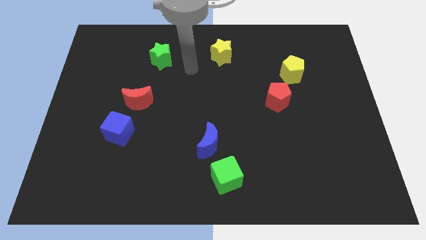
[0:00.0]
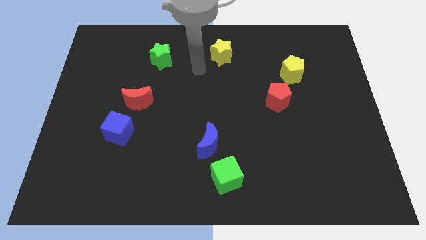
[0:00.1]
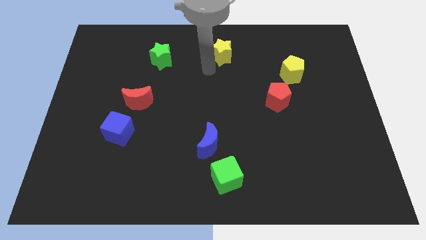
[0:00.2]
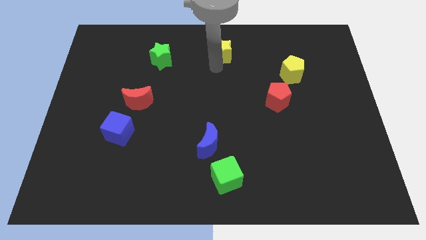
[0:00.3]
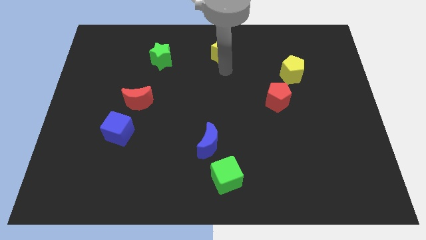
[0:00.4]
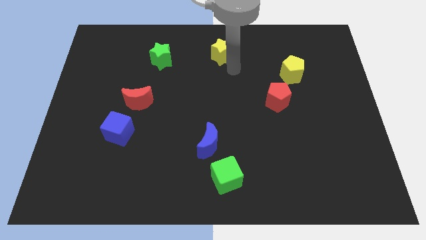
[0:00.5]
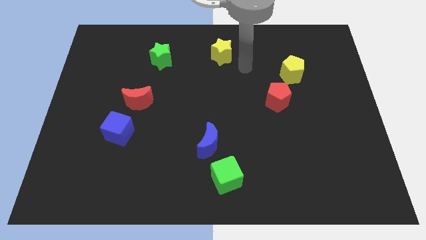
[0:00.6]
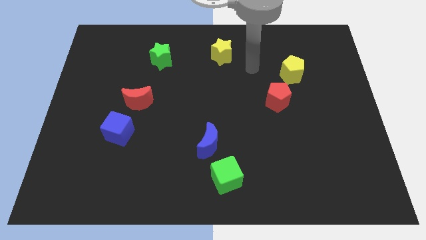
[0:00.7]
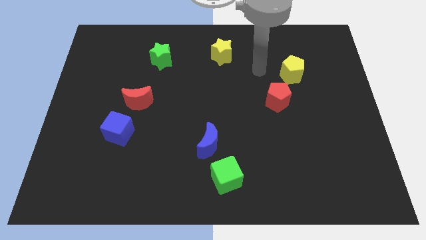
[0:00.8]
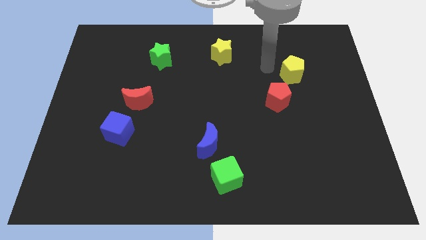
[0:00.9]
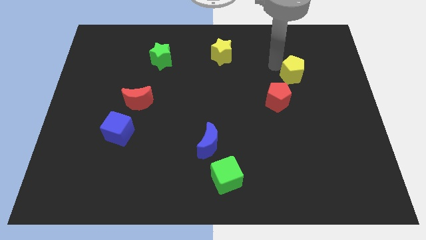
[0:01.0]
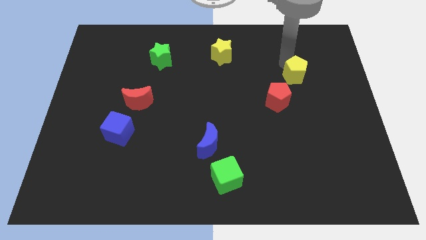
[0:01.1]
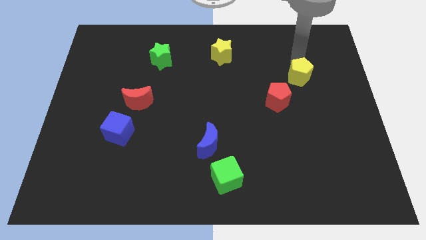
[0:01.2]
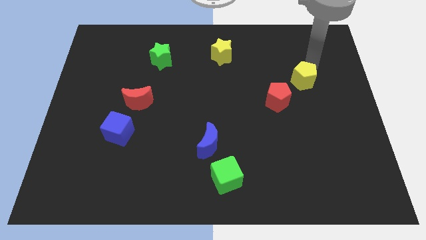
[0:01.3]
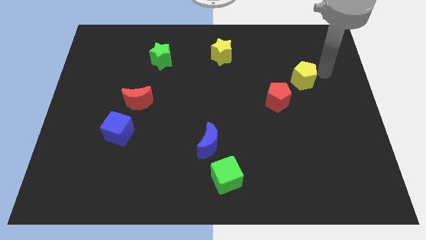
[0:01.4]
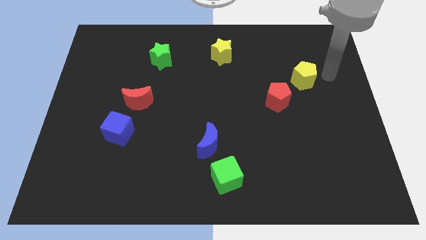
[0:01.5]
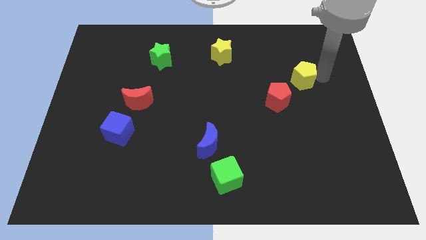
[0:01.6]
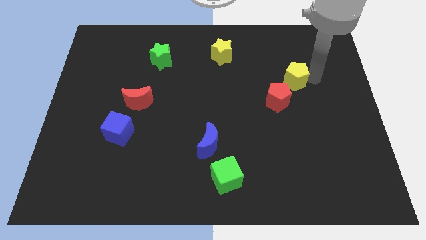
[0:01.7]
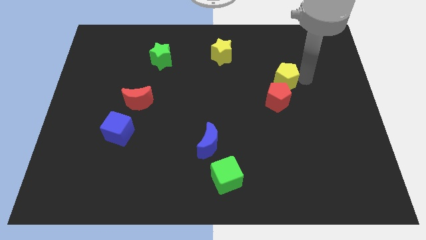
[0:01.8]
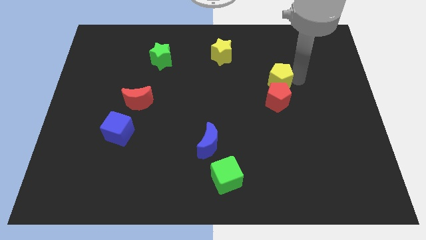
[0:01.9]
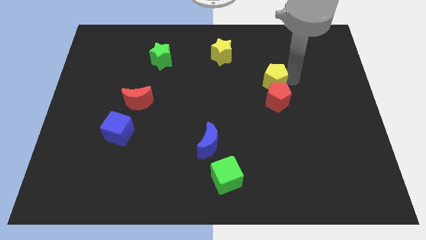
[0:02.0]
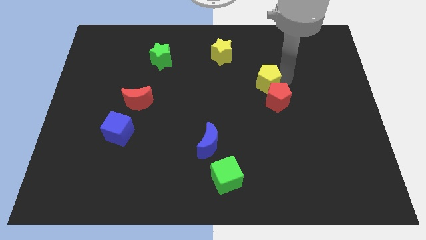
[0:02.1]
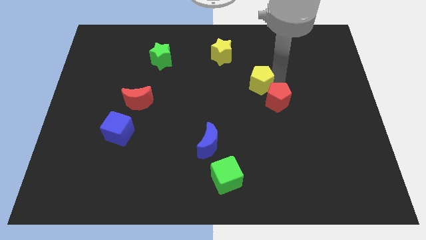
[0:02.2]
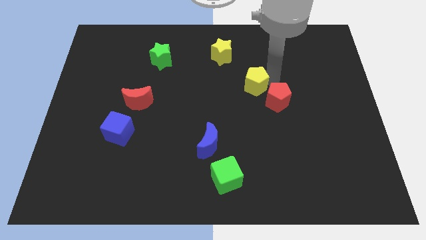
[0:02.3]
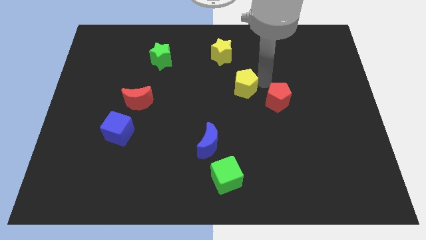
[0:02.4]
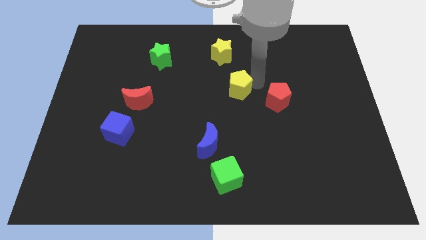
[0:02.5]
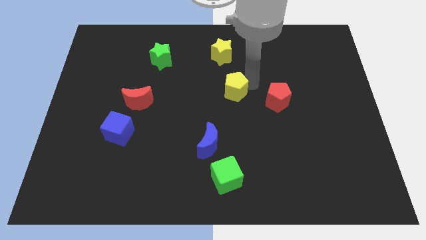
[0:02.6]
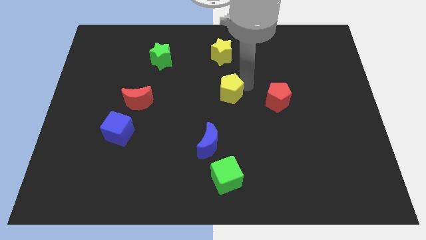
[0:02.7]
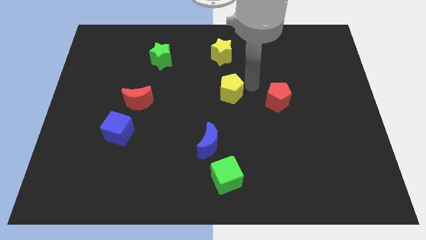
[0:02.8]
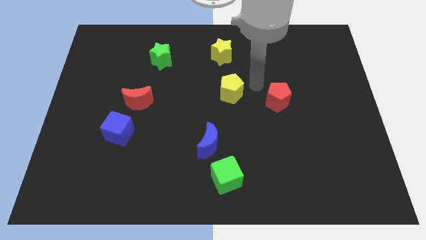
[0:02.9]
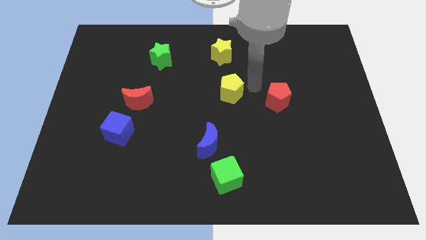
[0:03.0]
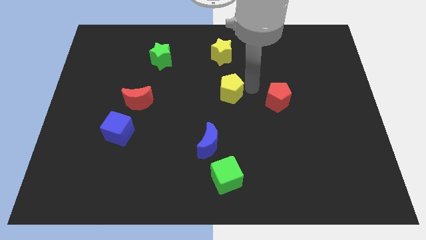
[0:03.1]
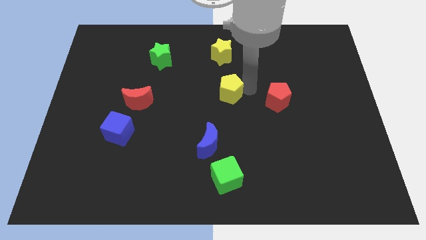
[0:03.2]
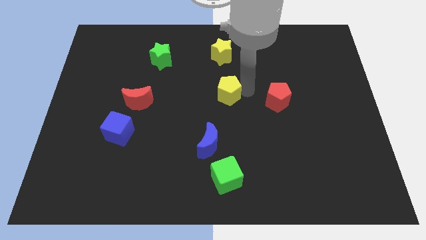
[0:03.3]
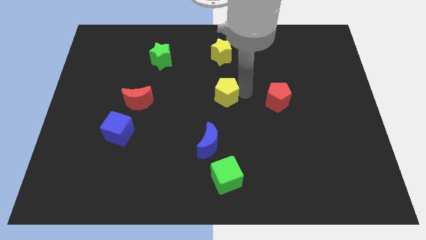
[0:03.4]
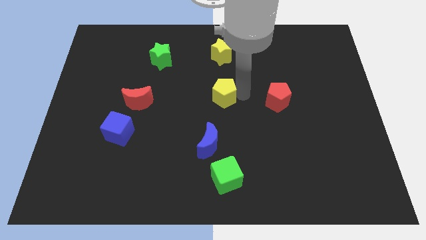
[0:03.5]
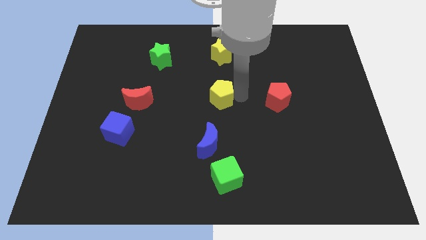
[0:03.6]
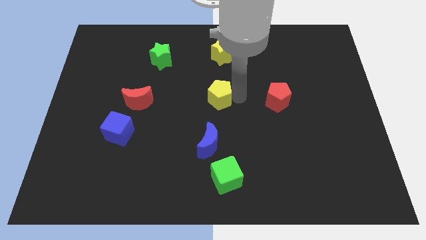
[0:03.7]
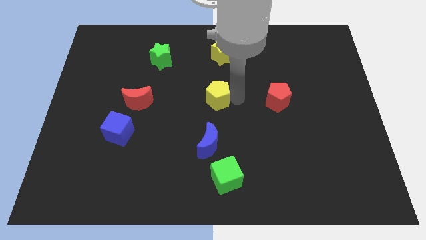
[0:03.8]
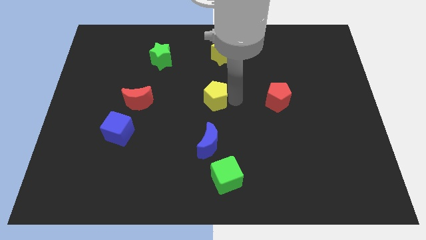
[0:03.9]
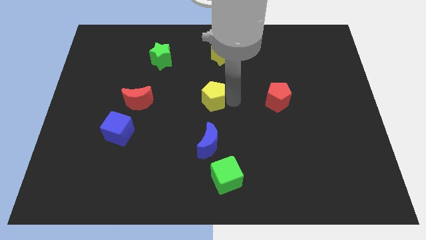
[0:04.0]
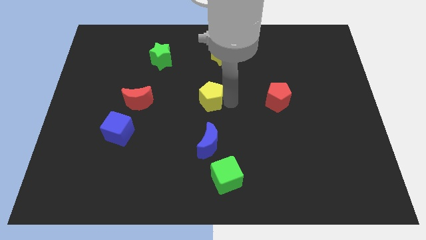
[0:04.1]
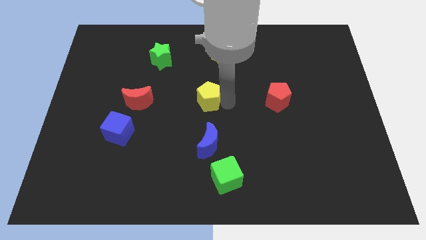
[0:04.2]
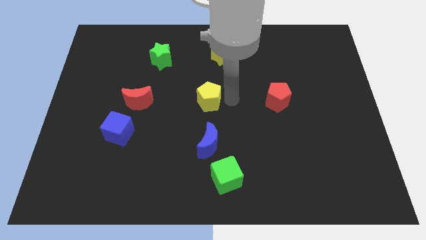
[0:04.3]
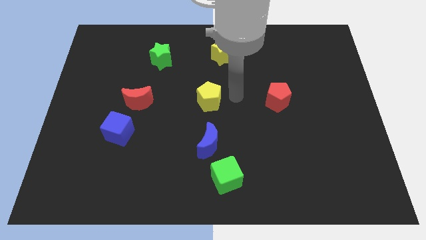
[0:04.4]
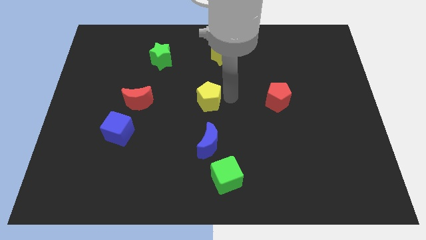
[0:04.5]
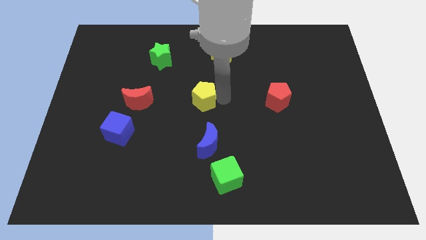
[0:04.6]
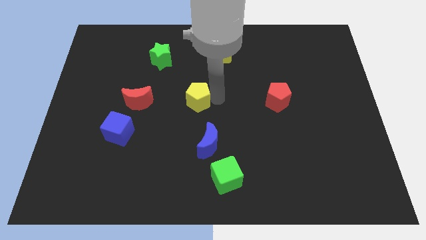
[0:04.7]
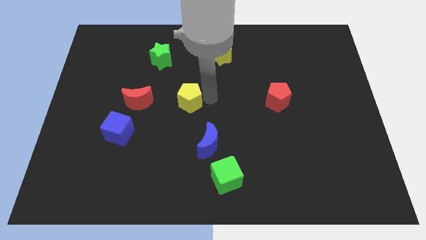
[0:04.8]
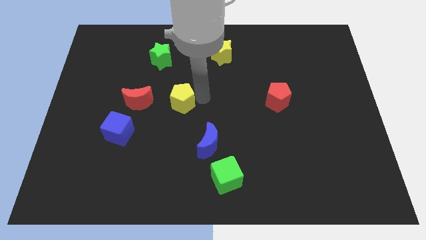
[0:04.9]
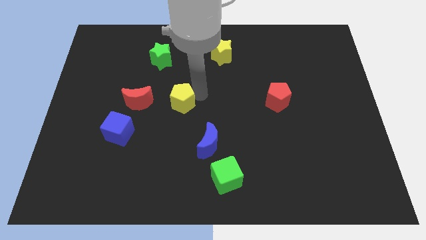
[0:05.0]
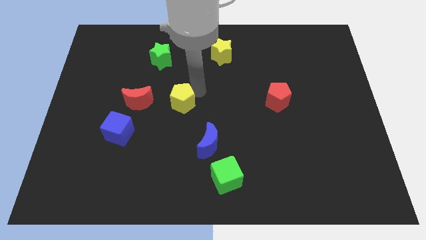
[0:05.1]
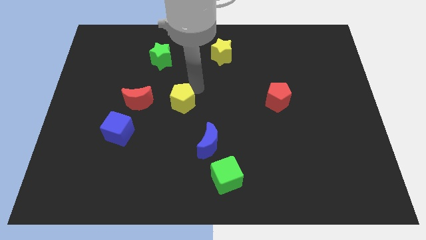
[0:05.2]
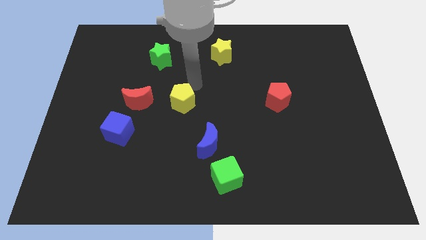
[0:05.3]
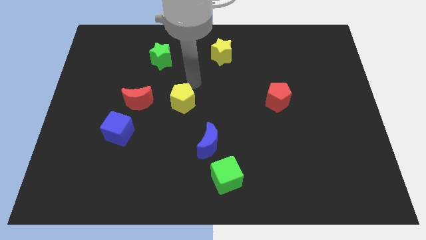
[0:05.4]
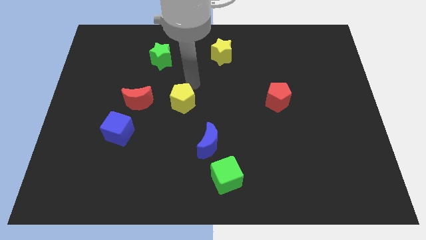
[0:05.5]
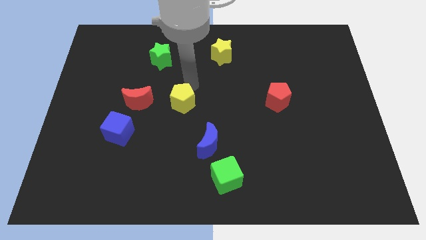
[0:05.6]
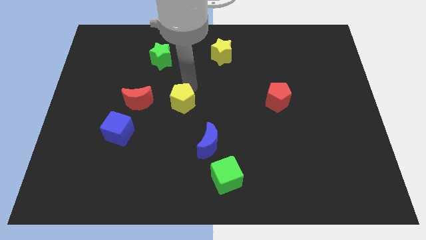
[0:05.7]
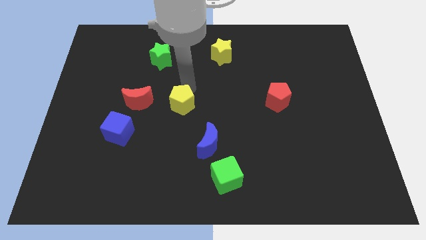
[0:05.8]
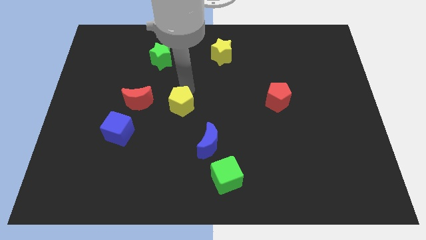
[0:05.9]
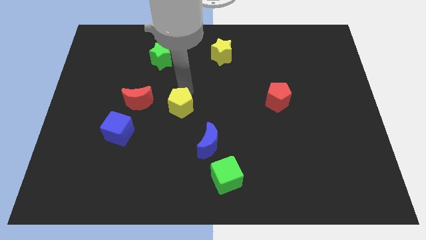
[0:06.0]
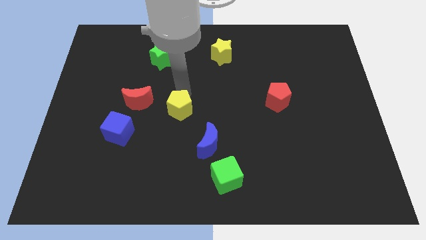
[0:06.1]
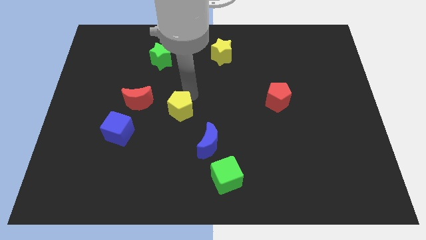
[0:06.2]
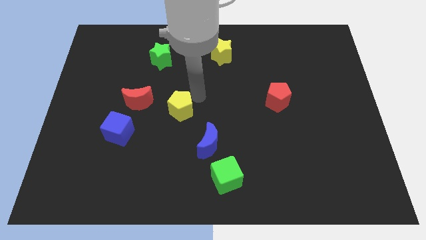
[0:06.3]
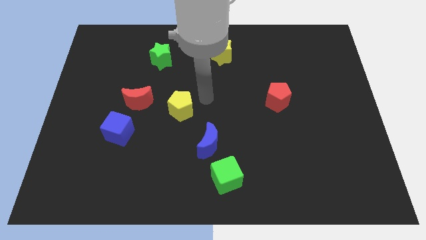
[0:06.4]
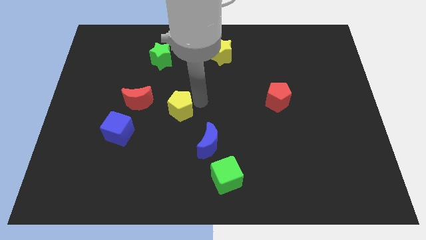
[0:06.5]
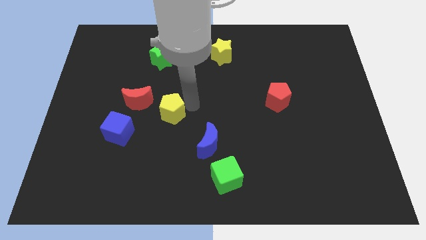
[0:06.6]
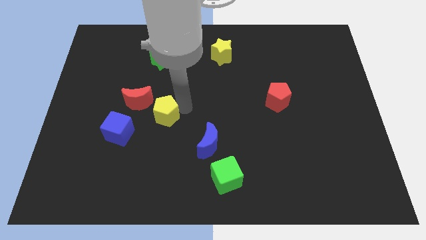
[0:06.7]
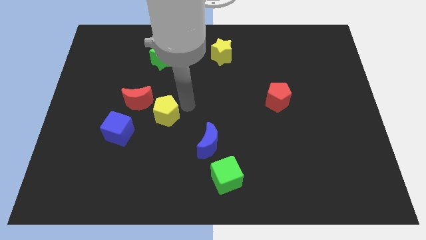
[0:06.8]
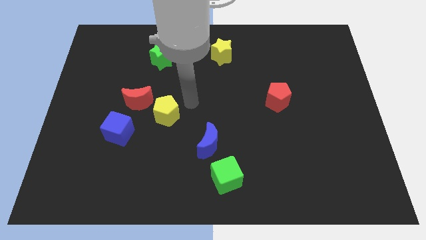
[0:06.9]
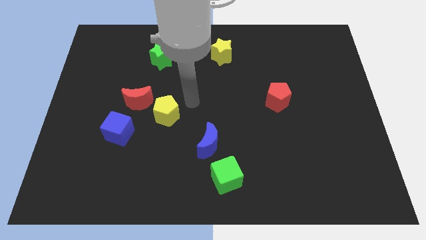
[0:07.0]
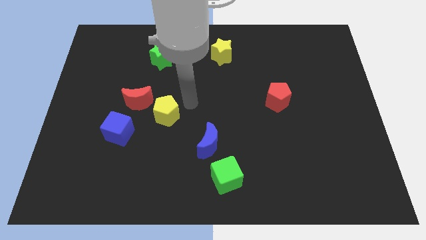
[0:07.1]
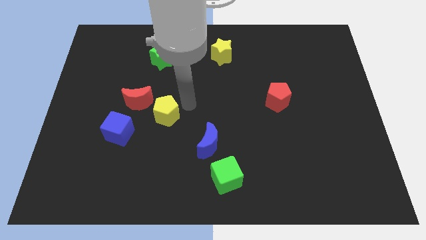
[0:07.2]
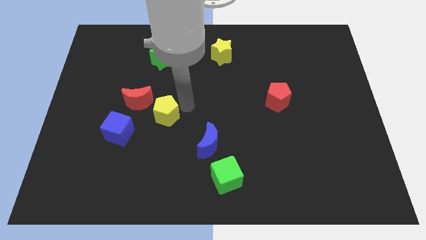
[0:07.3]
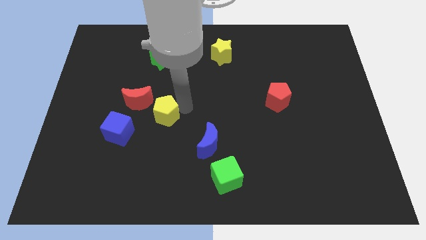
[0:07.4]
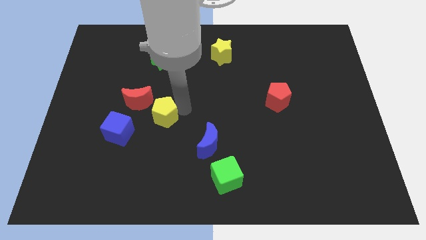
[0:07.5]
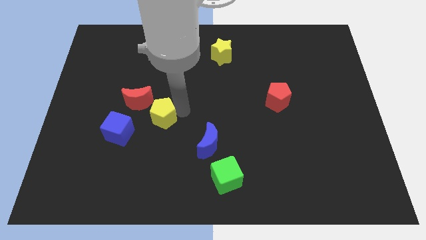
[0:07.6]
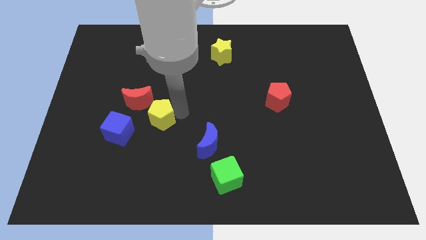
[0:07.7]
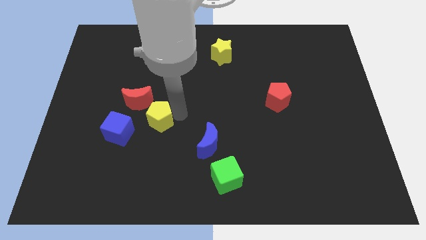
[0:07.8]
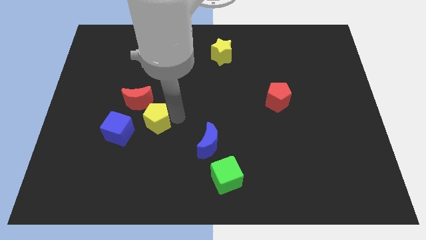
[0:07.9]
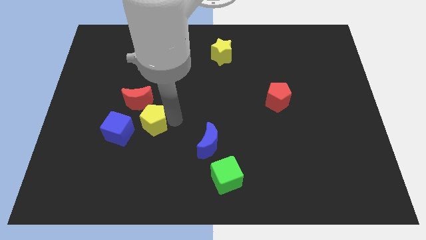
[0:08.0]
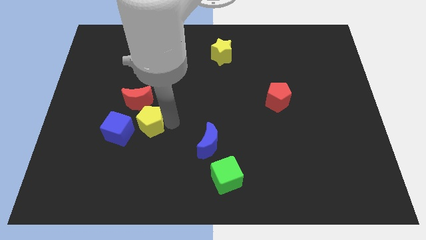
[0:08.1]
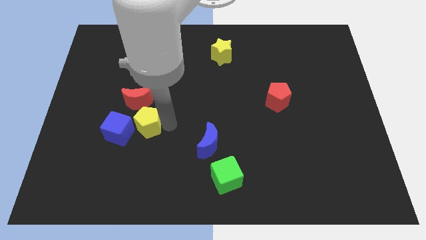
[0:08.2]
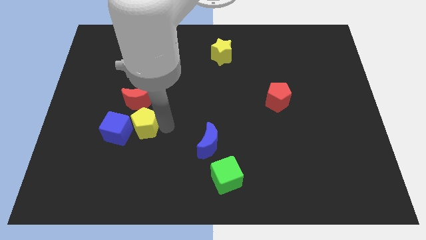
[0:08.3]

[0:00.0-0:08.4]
move the yellow pentagon towards the blue cube

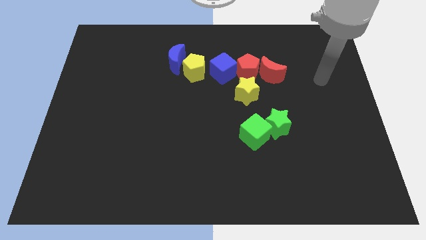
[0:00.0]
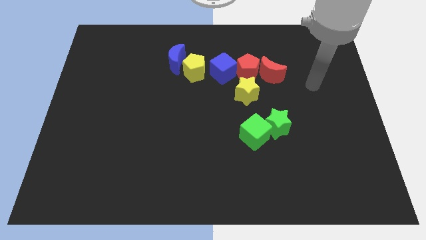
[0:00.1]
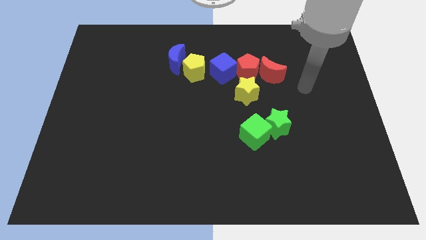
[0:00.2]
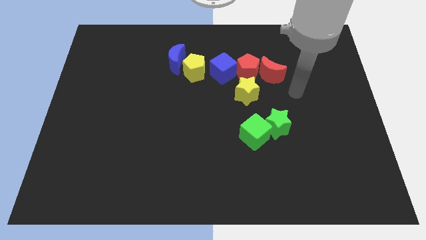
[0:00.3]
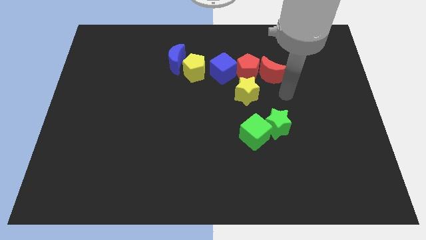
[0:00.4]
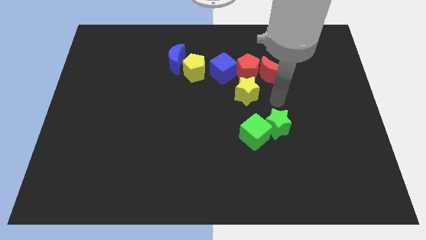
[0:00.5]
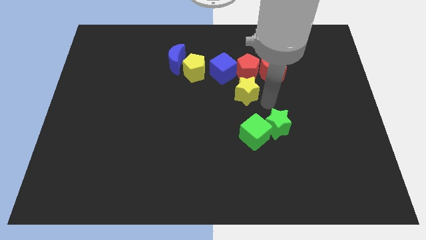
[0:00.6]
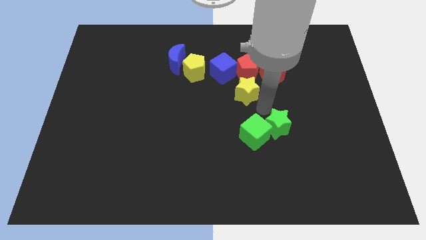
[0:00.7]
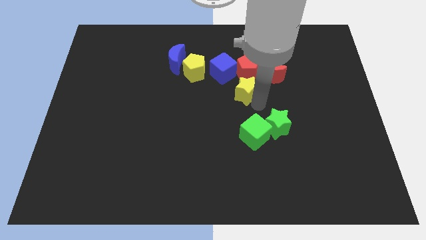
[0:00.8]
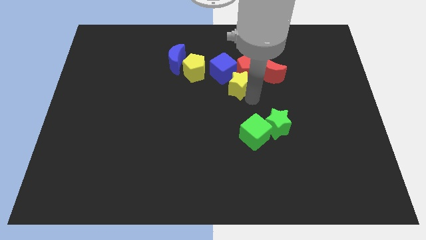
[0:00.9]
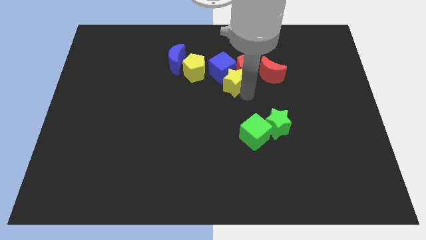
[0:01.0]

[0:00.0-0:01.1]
push the yellow star towards the blue cube
